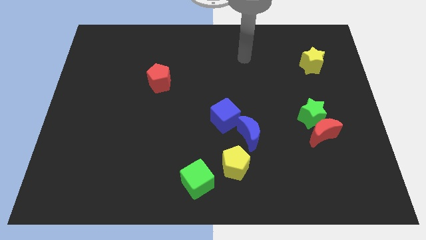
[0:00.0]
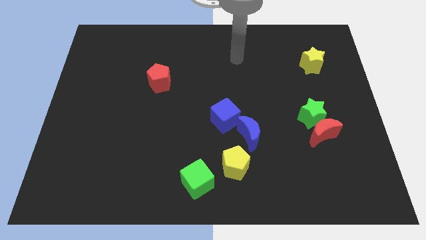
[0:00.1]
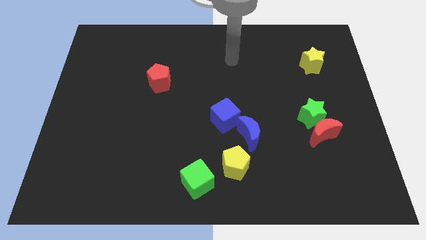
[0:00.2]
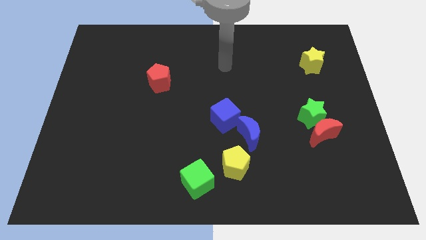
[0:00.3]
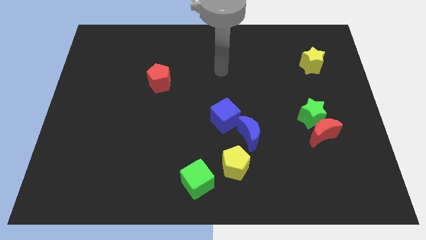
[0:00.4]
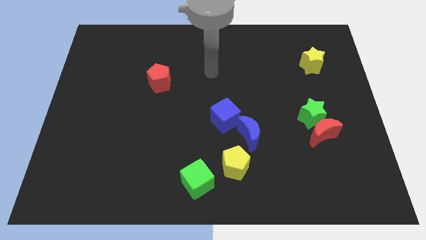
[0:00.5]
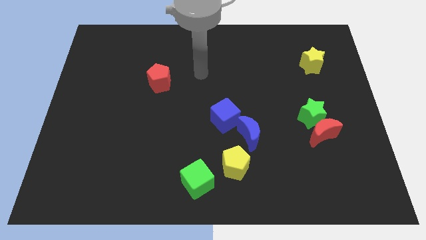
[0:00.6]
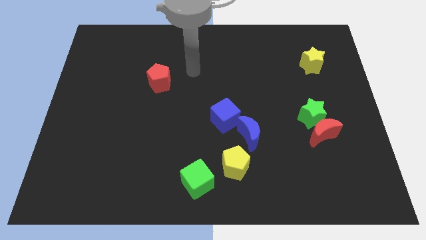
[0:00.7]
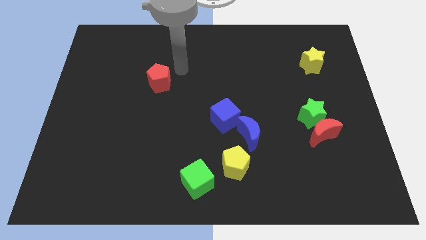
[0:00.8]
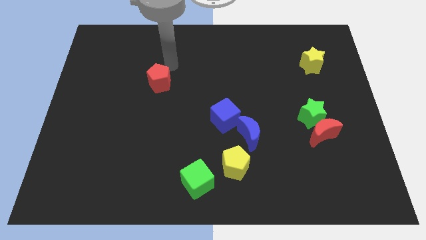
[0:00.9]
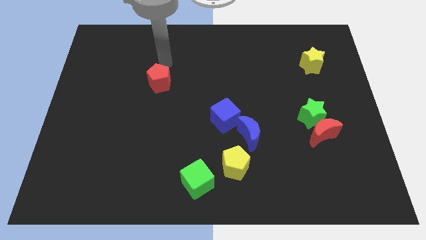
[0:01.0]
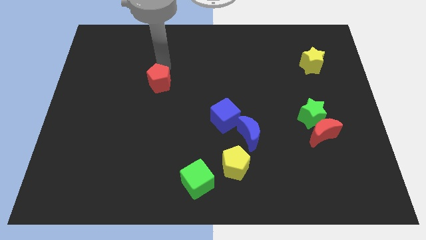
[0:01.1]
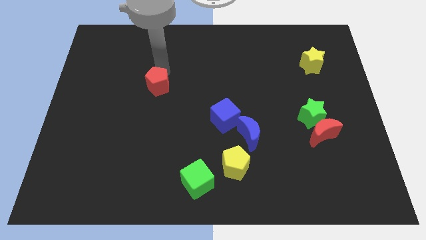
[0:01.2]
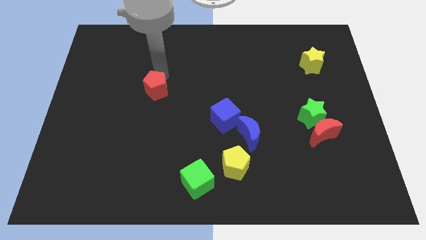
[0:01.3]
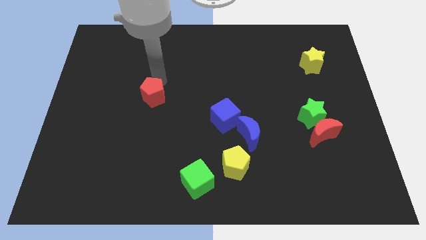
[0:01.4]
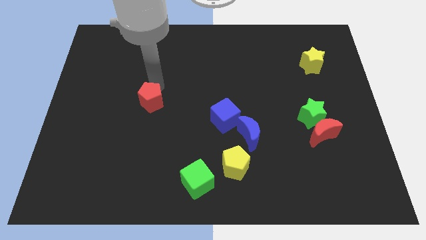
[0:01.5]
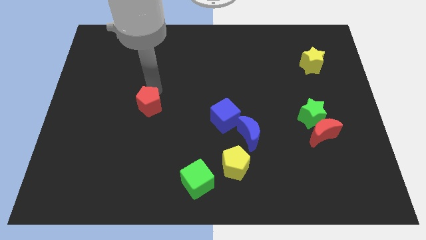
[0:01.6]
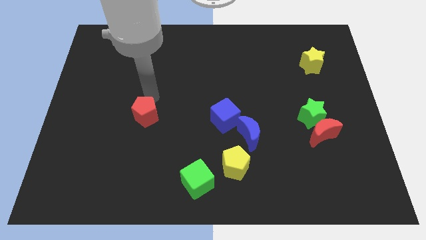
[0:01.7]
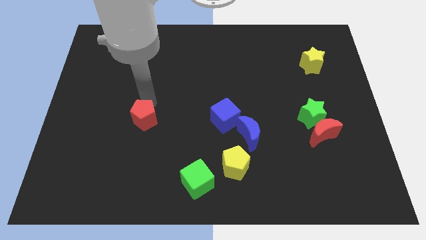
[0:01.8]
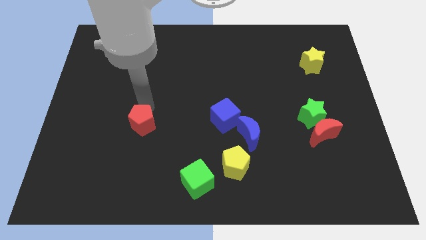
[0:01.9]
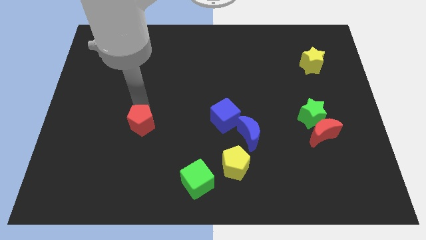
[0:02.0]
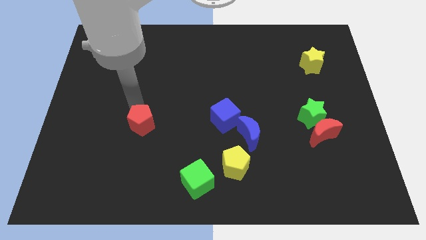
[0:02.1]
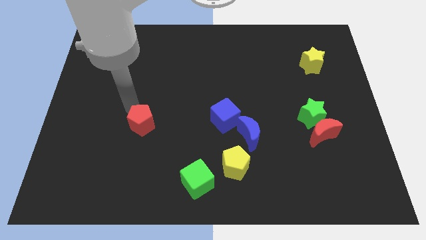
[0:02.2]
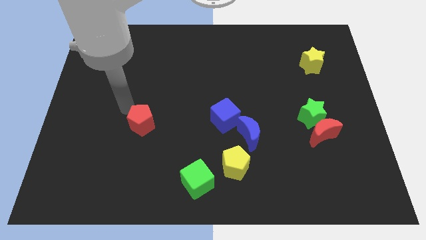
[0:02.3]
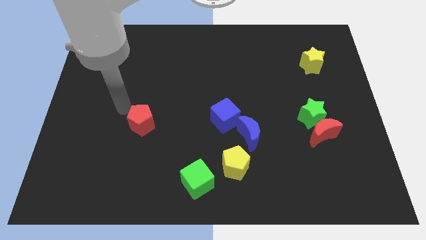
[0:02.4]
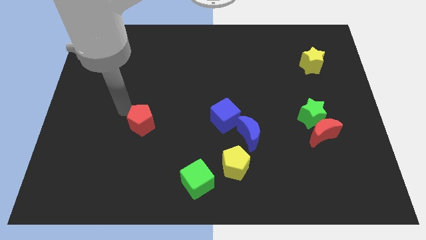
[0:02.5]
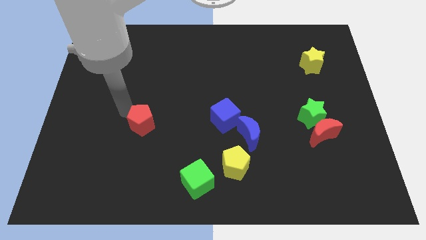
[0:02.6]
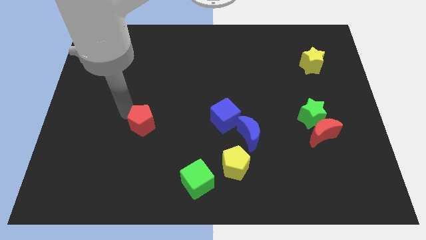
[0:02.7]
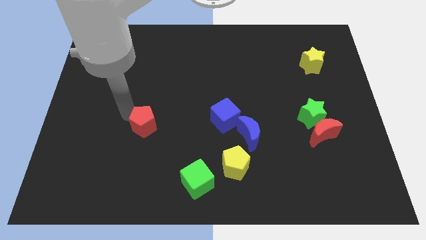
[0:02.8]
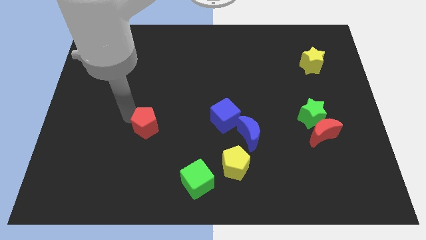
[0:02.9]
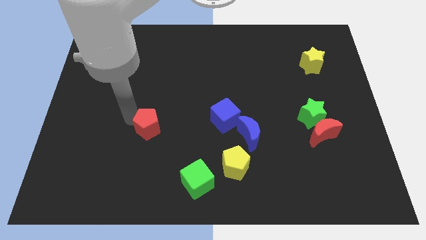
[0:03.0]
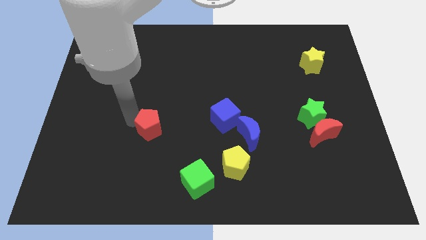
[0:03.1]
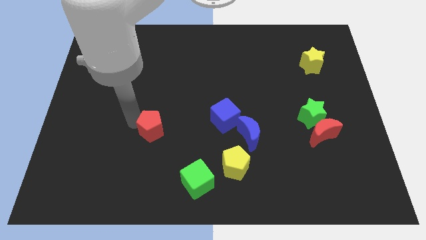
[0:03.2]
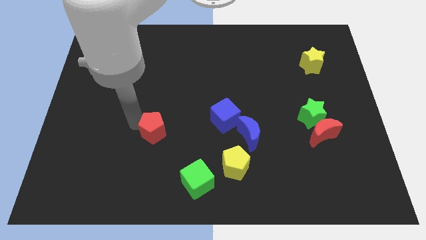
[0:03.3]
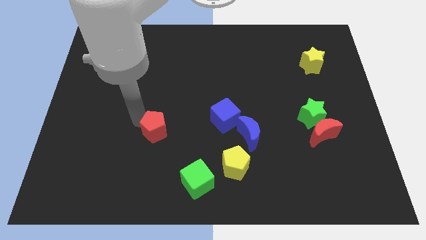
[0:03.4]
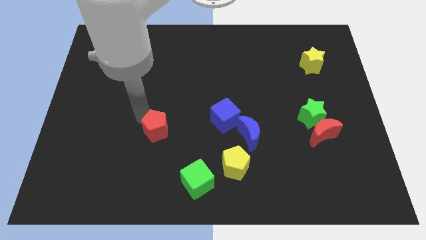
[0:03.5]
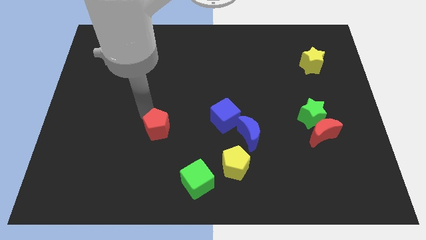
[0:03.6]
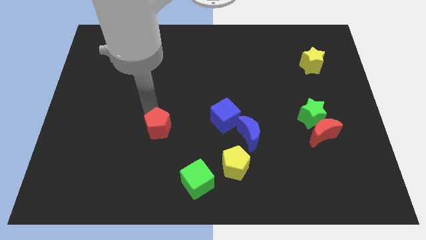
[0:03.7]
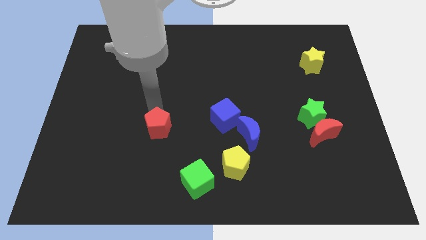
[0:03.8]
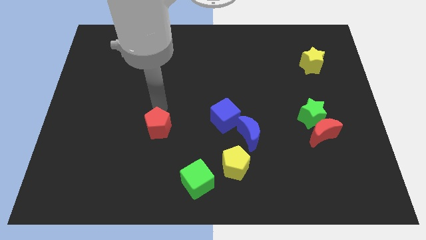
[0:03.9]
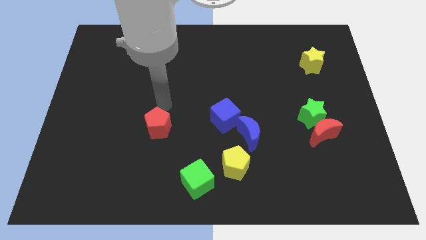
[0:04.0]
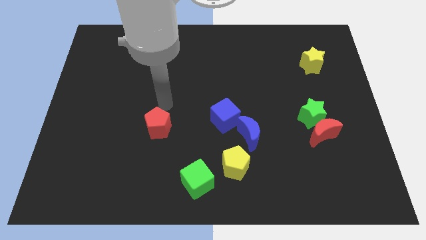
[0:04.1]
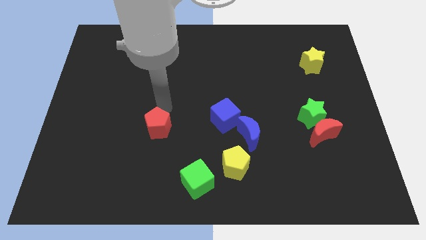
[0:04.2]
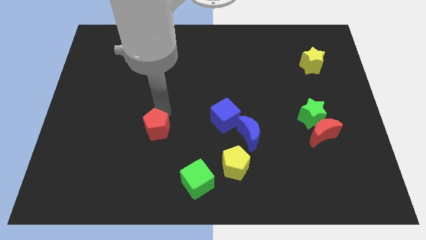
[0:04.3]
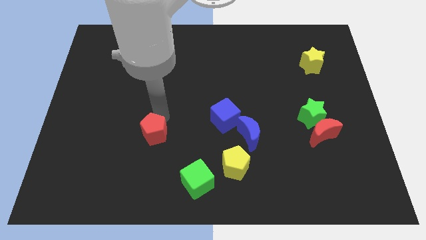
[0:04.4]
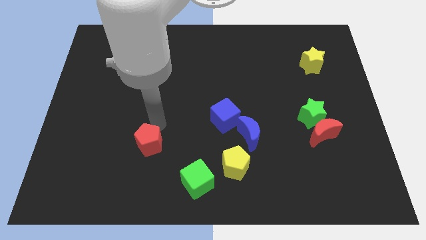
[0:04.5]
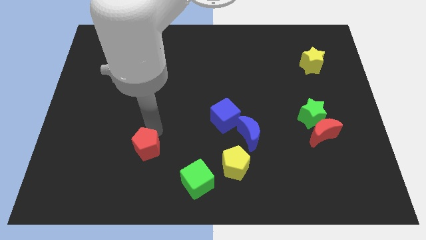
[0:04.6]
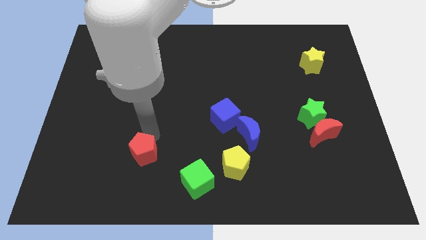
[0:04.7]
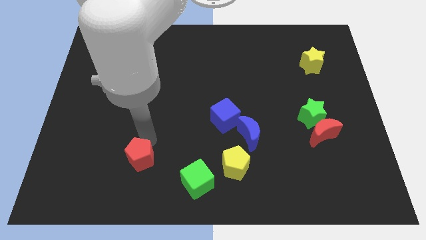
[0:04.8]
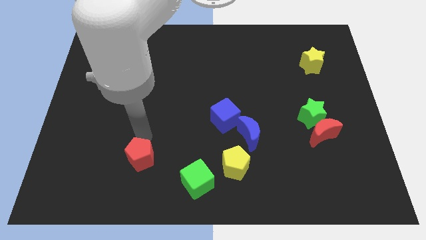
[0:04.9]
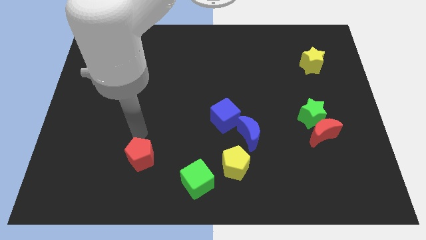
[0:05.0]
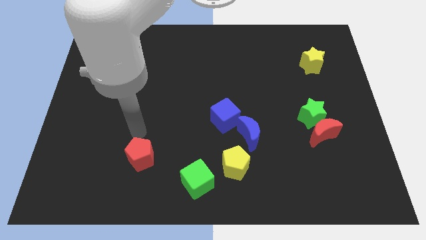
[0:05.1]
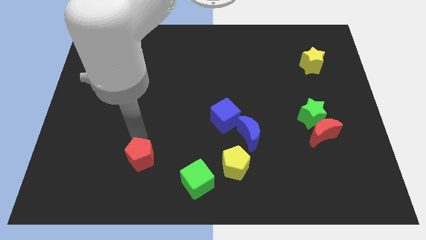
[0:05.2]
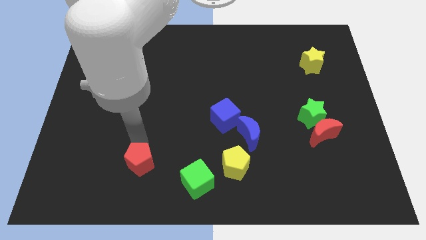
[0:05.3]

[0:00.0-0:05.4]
slide the red pentagon just left of the green cube

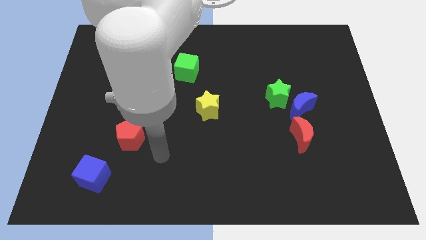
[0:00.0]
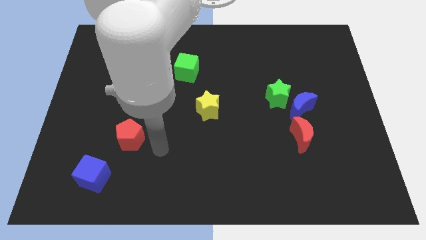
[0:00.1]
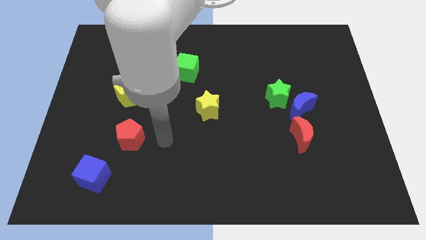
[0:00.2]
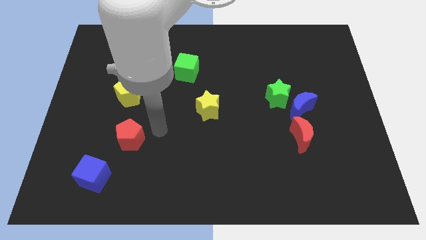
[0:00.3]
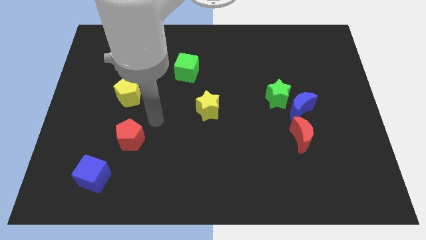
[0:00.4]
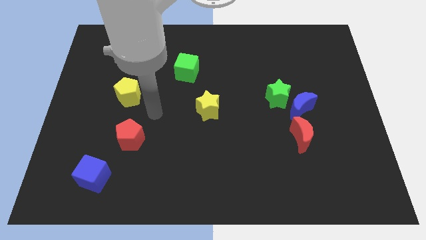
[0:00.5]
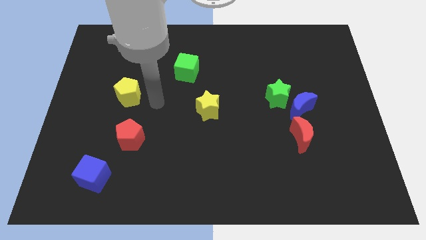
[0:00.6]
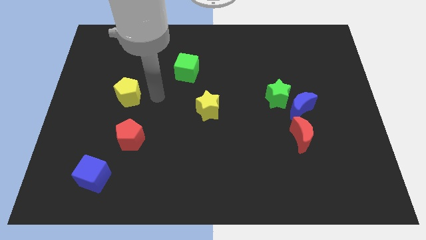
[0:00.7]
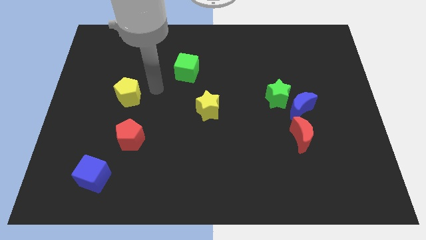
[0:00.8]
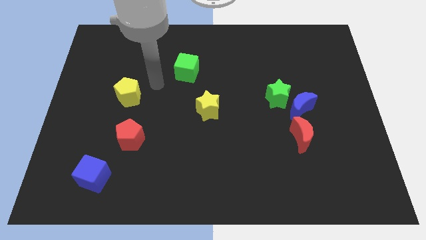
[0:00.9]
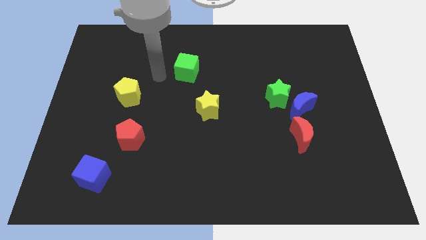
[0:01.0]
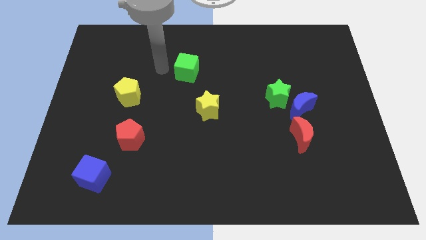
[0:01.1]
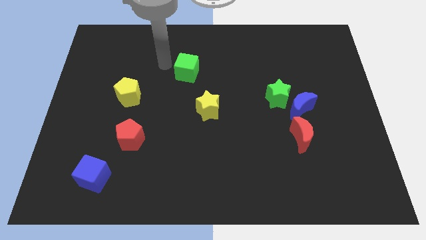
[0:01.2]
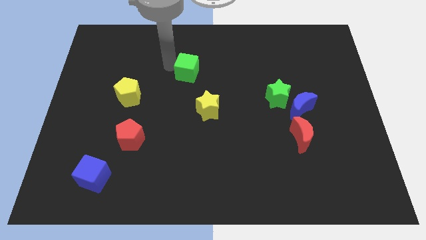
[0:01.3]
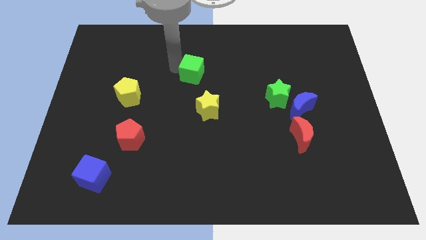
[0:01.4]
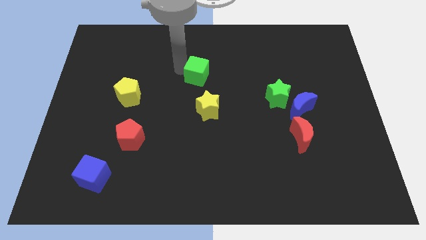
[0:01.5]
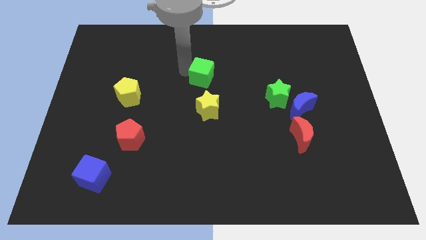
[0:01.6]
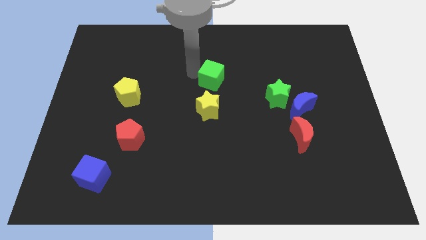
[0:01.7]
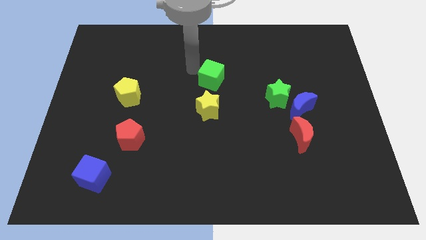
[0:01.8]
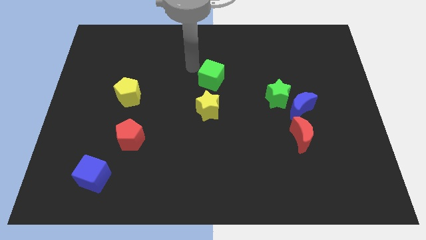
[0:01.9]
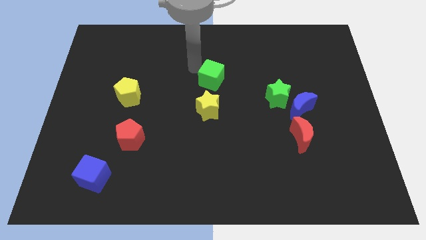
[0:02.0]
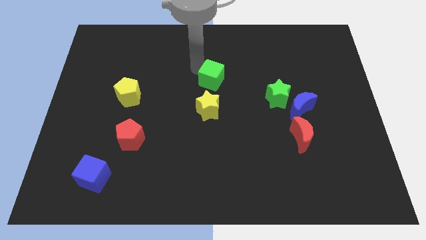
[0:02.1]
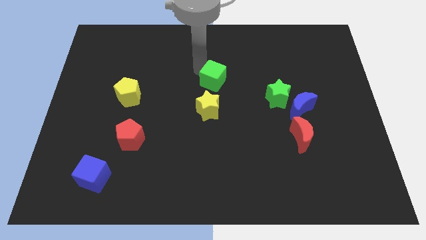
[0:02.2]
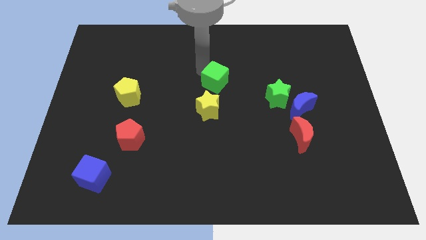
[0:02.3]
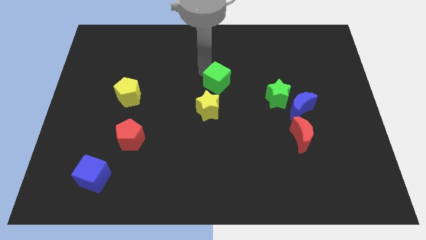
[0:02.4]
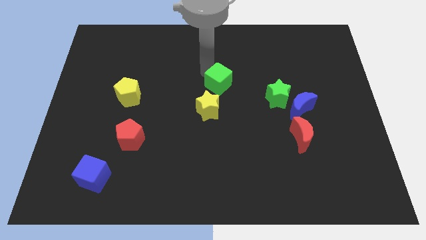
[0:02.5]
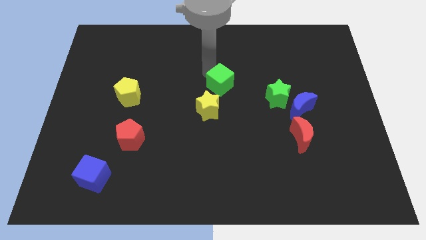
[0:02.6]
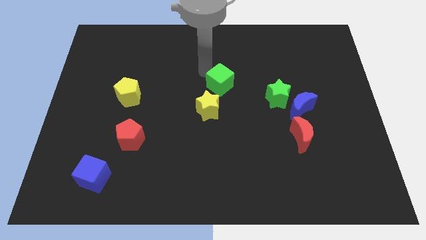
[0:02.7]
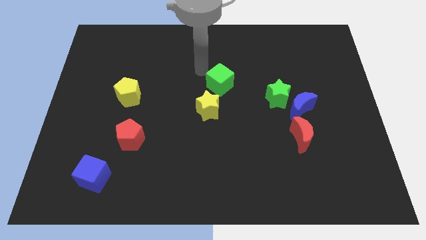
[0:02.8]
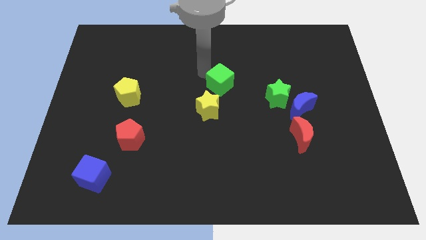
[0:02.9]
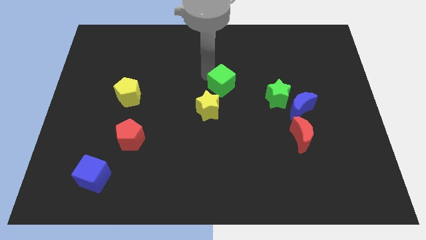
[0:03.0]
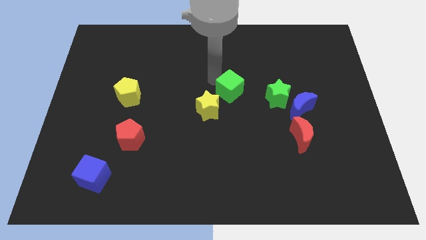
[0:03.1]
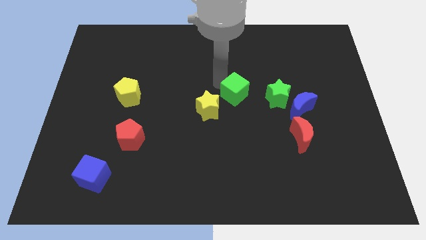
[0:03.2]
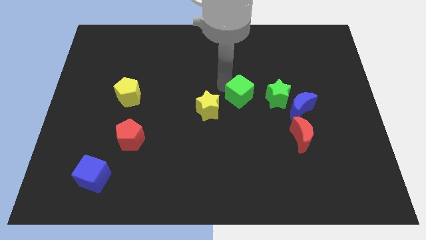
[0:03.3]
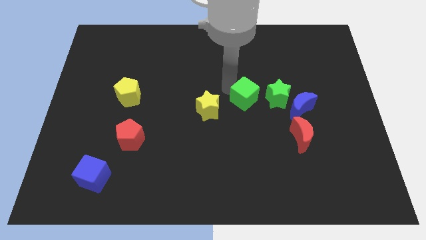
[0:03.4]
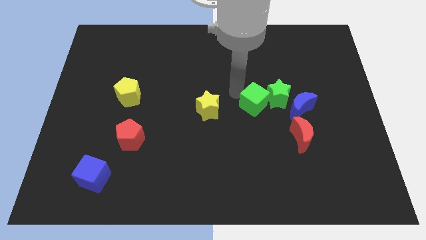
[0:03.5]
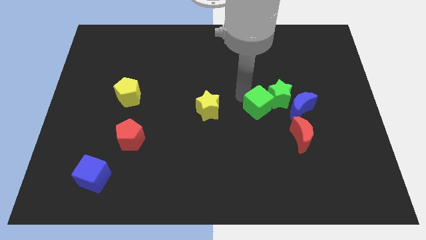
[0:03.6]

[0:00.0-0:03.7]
move the green cube diagonally up and to the left of the red moon
